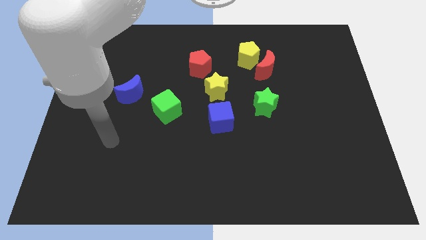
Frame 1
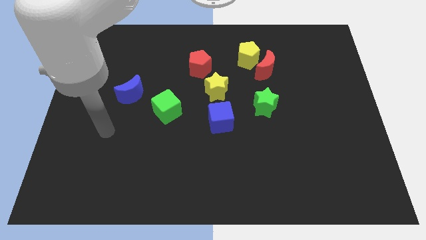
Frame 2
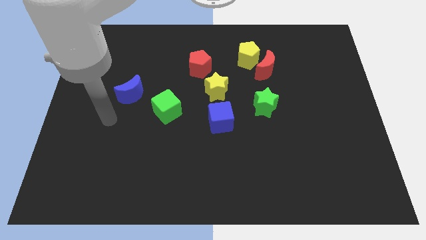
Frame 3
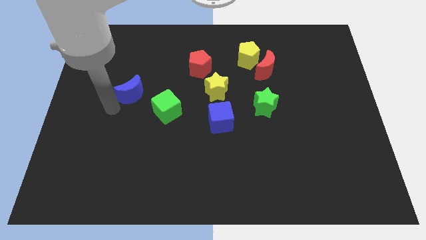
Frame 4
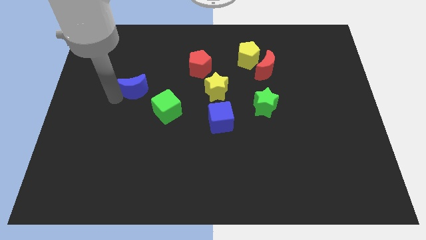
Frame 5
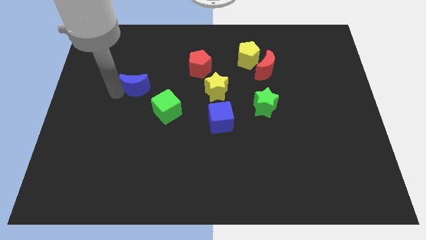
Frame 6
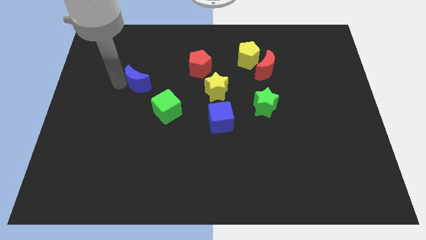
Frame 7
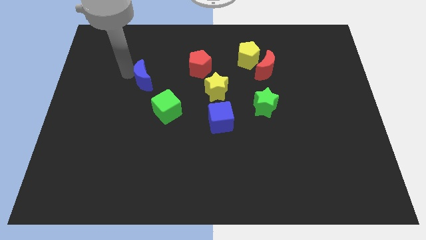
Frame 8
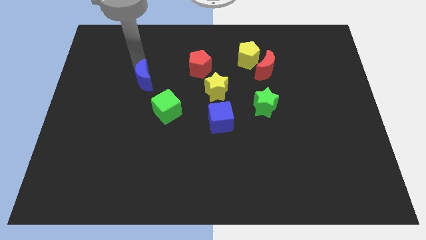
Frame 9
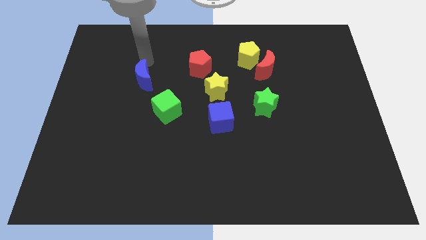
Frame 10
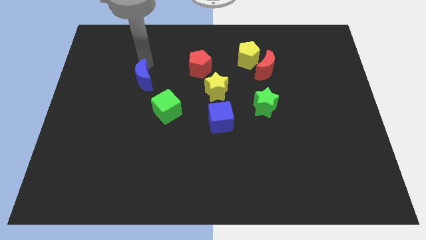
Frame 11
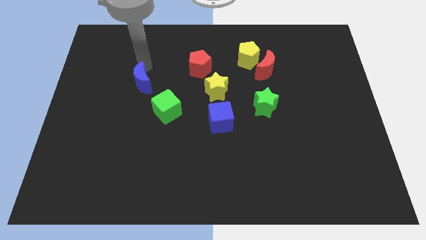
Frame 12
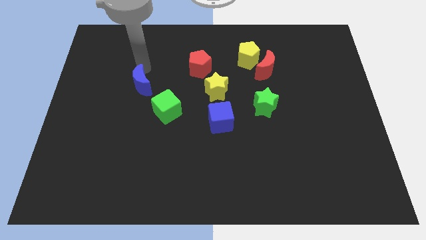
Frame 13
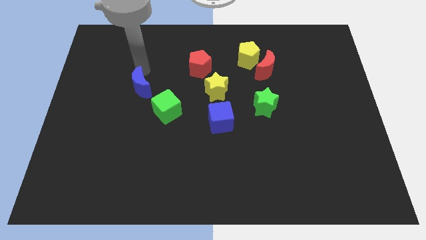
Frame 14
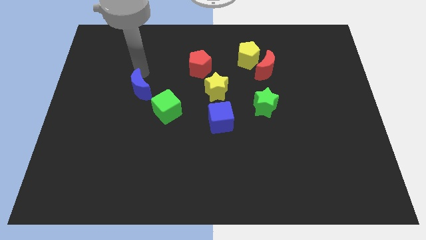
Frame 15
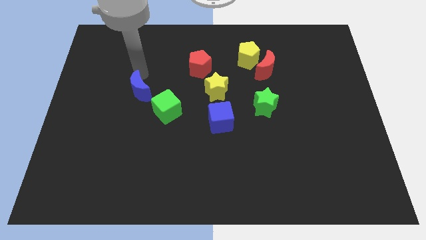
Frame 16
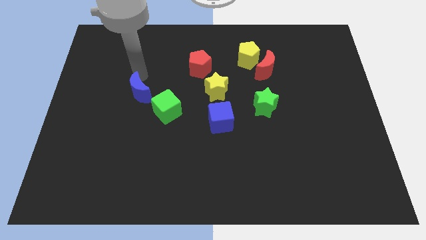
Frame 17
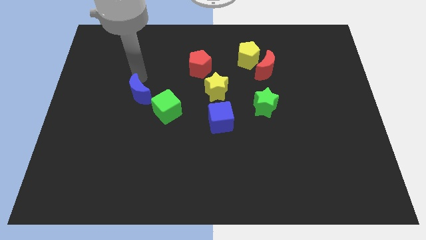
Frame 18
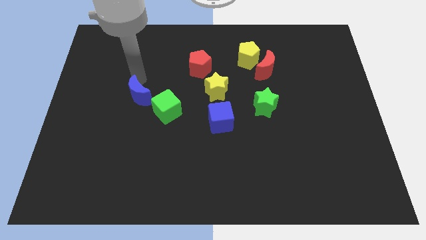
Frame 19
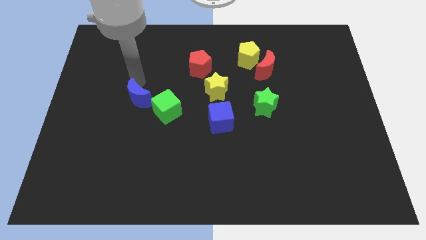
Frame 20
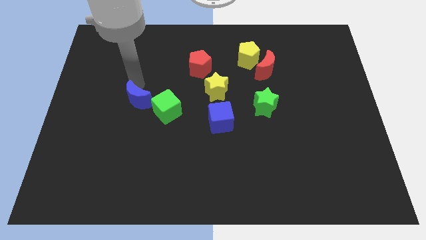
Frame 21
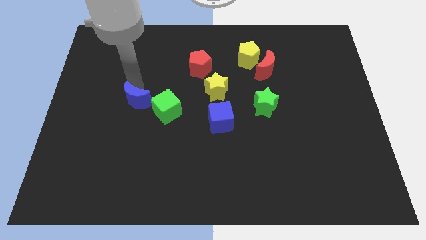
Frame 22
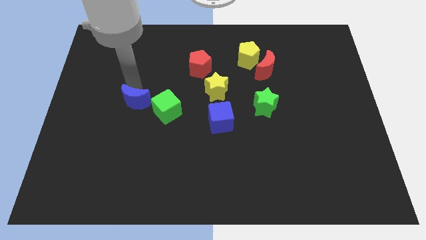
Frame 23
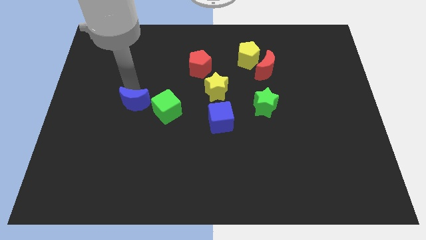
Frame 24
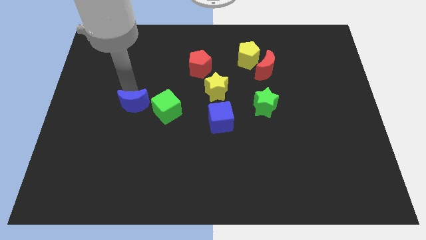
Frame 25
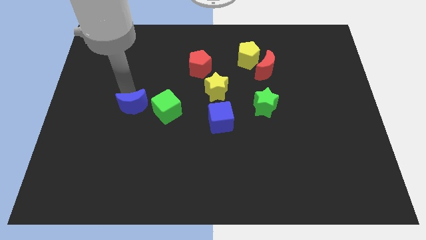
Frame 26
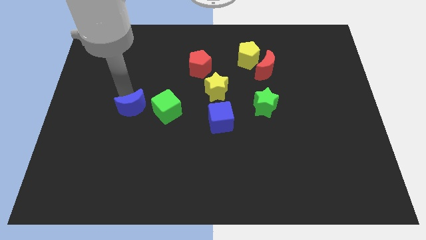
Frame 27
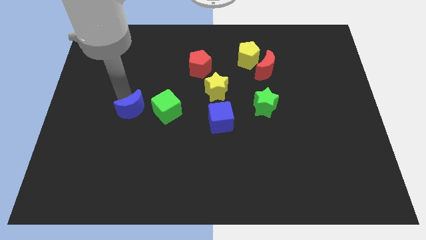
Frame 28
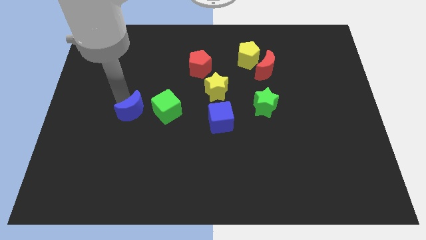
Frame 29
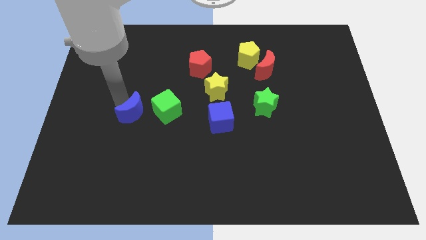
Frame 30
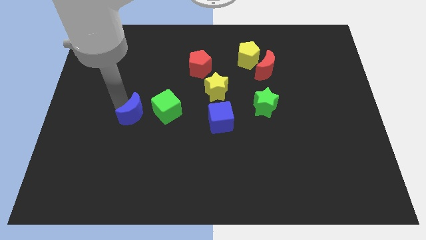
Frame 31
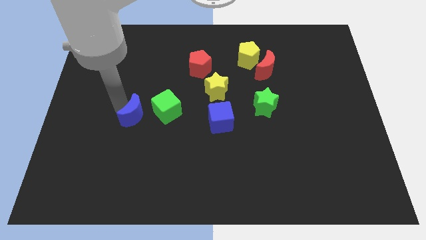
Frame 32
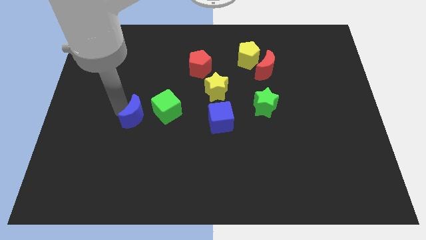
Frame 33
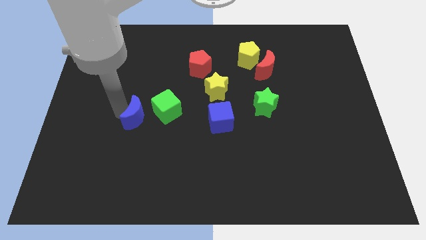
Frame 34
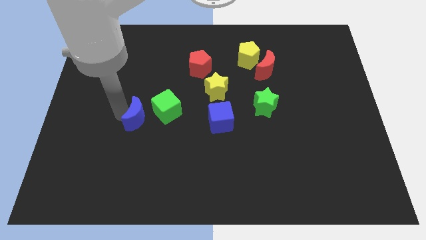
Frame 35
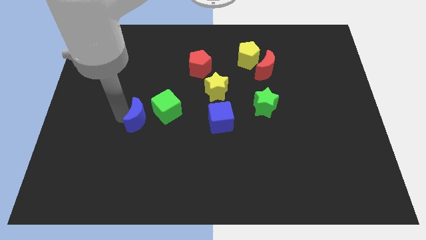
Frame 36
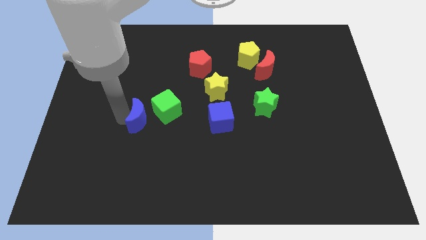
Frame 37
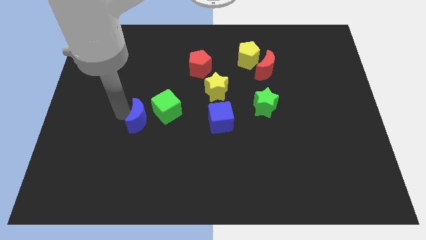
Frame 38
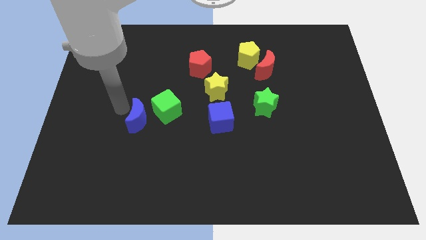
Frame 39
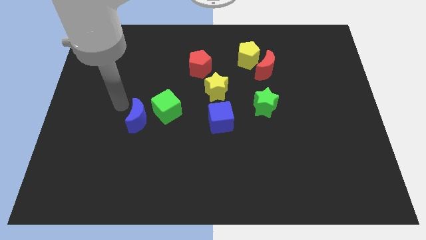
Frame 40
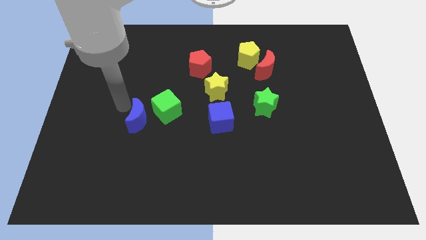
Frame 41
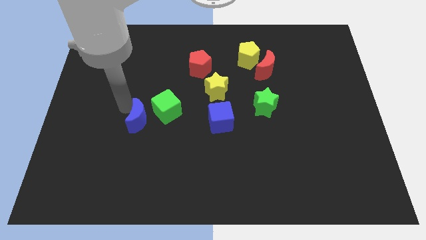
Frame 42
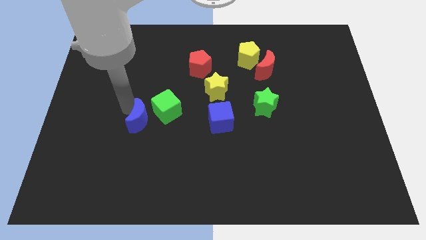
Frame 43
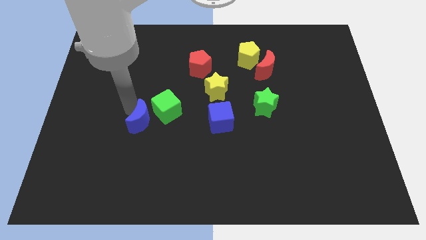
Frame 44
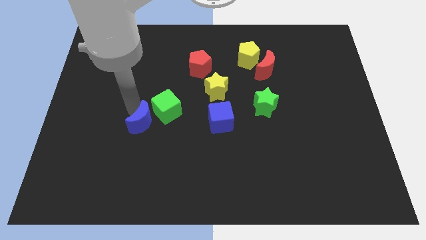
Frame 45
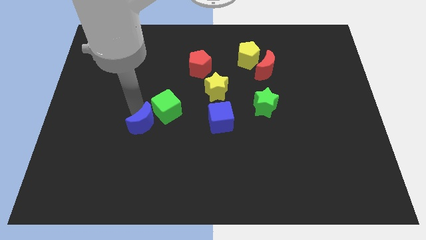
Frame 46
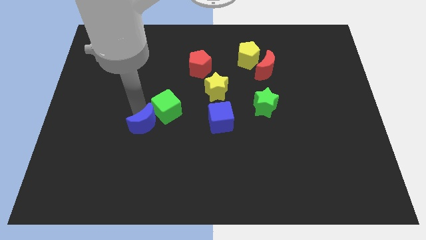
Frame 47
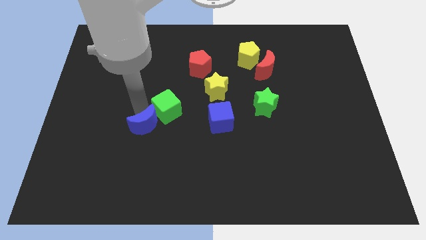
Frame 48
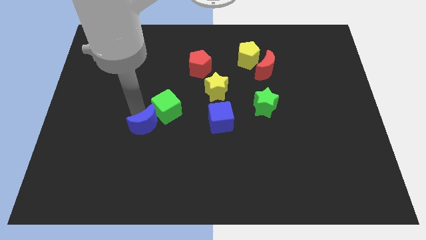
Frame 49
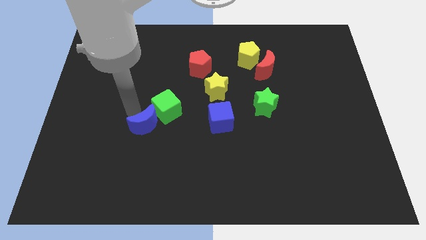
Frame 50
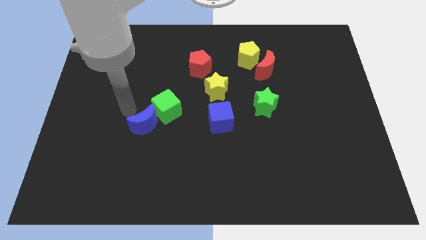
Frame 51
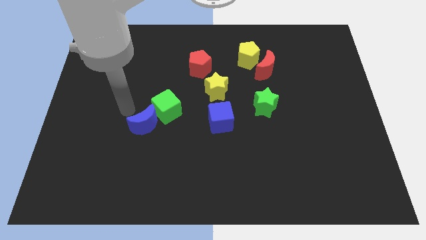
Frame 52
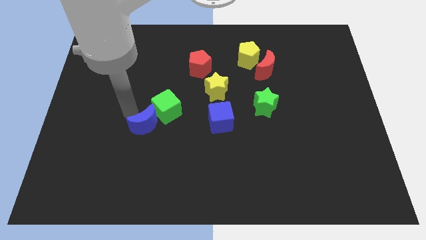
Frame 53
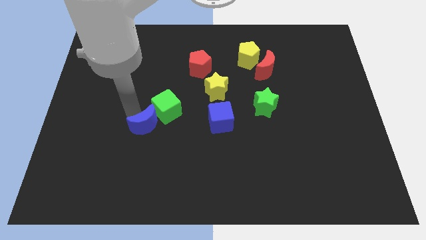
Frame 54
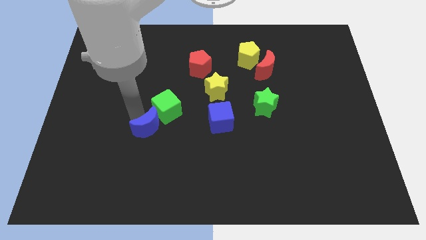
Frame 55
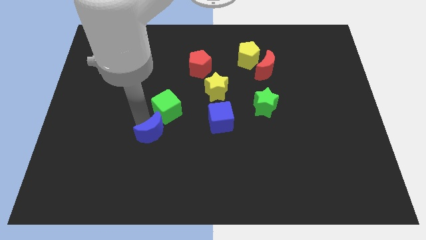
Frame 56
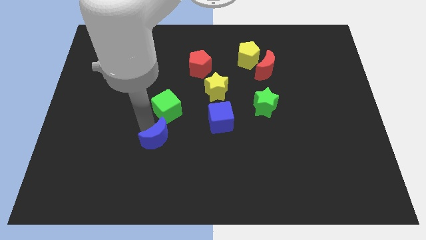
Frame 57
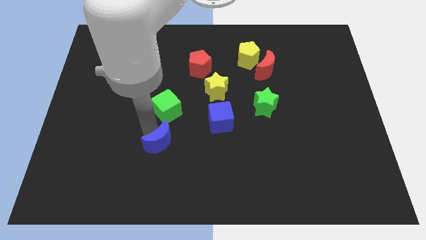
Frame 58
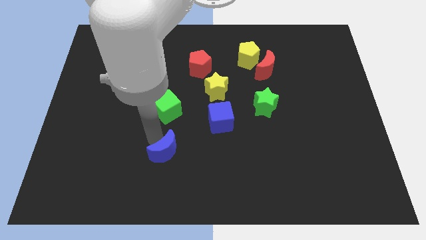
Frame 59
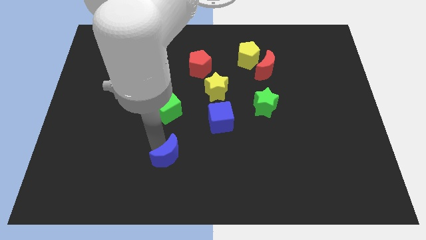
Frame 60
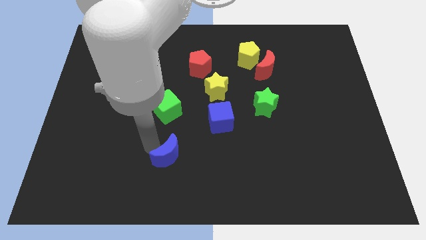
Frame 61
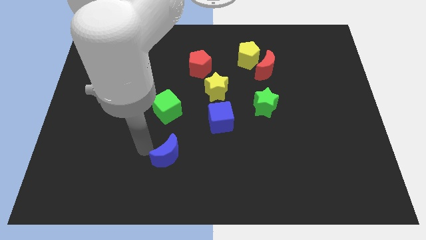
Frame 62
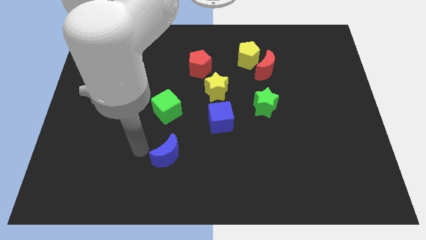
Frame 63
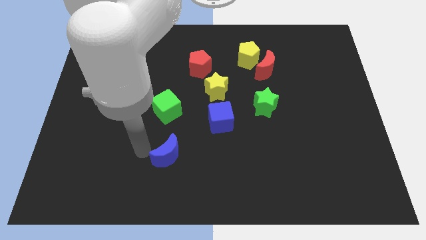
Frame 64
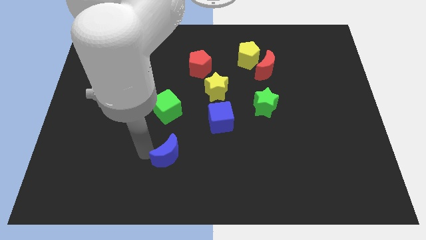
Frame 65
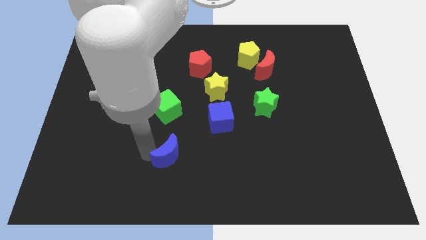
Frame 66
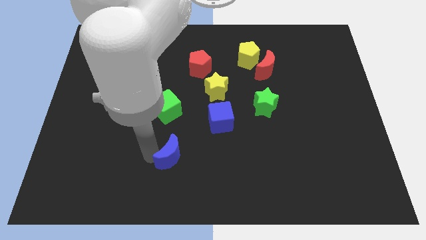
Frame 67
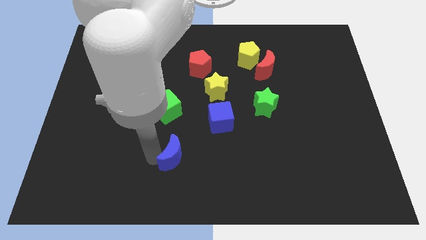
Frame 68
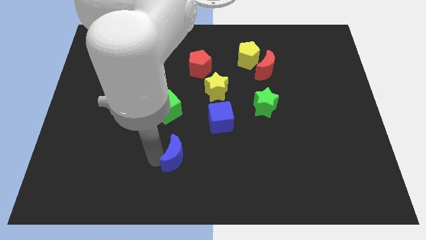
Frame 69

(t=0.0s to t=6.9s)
move the blue moon diagonally downwards and right

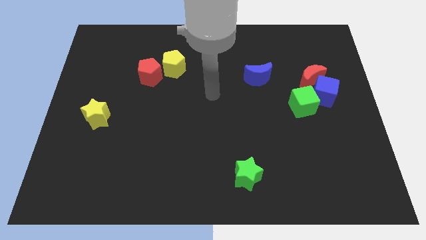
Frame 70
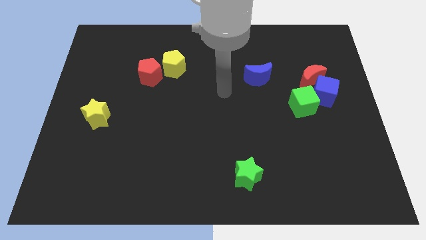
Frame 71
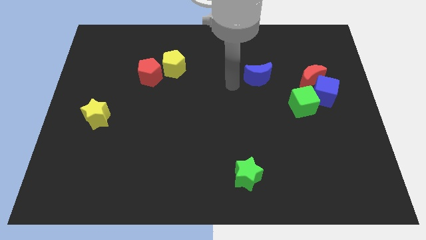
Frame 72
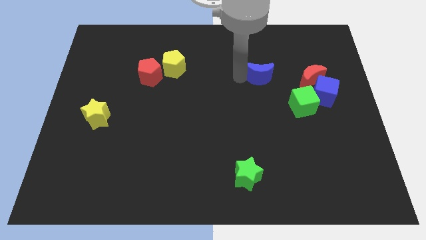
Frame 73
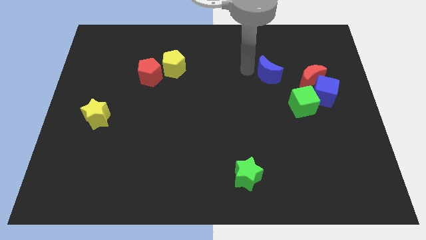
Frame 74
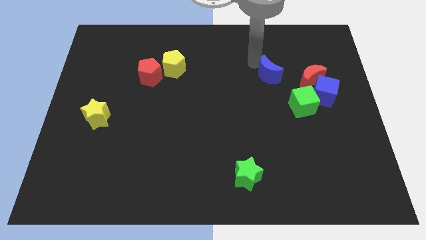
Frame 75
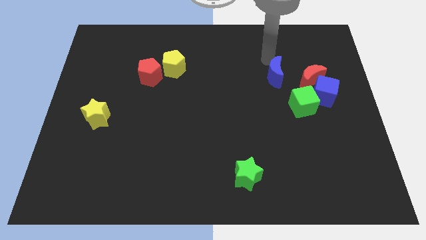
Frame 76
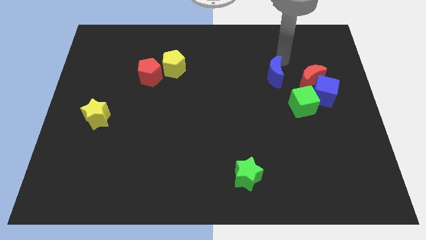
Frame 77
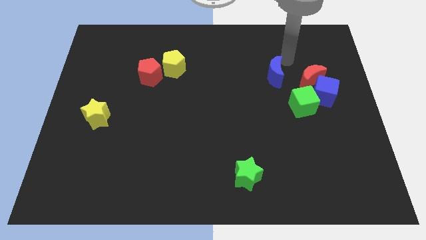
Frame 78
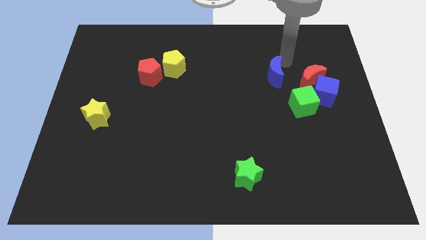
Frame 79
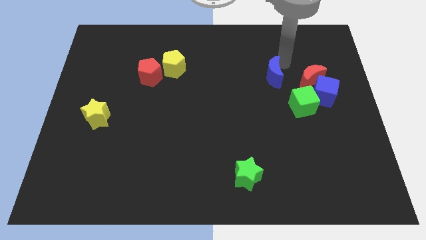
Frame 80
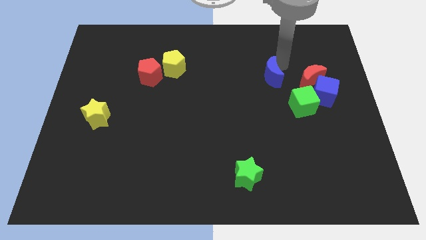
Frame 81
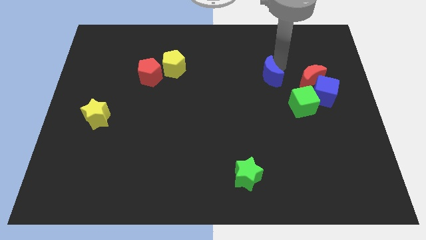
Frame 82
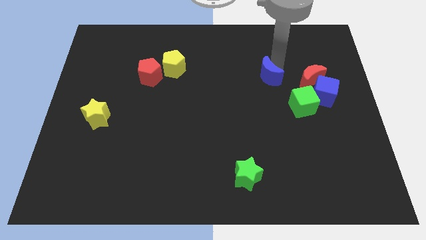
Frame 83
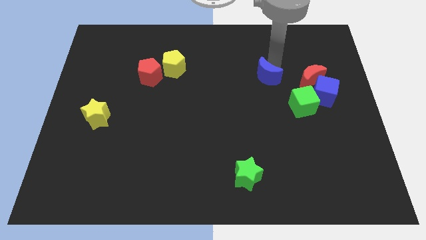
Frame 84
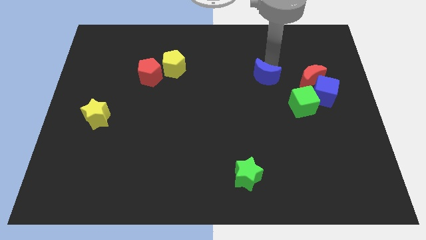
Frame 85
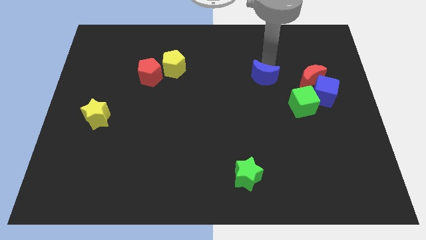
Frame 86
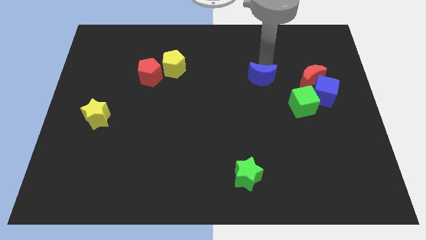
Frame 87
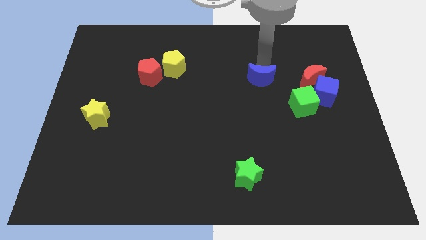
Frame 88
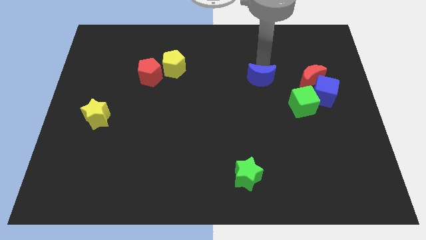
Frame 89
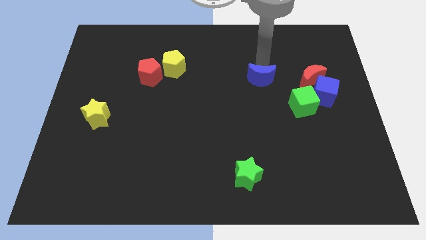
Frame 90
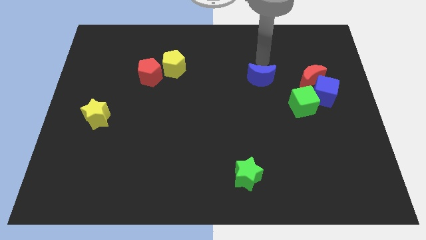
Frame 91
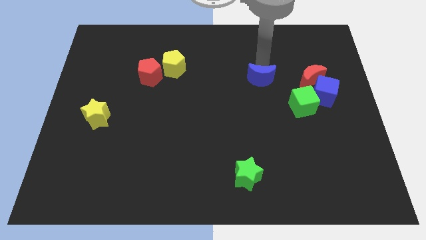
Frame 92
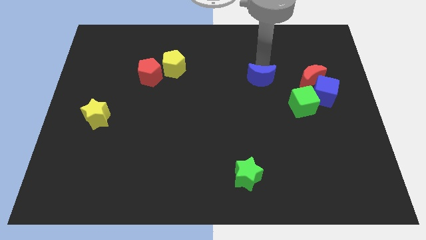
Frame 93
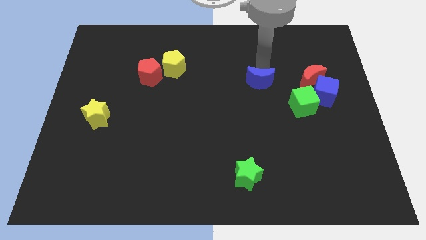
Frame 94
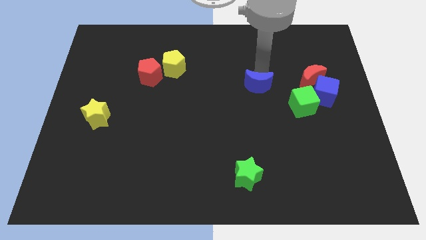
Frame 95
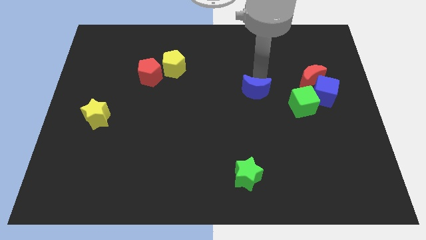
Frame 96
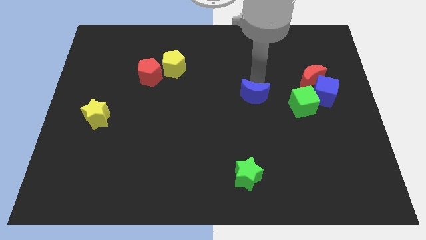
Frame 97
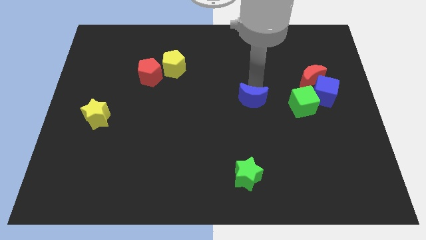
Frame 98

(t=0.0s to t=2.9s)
move the blue moon a little bit downwards
